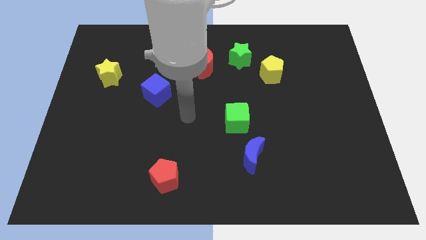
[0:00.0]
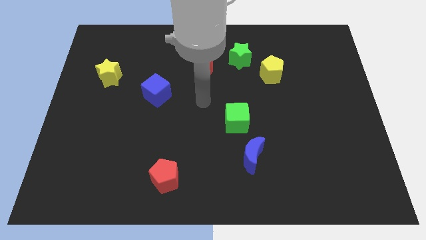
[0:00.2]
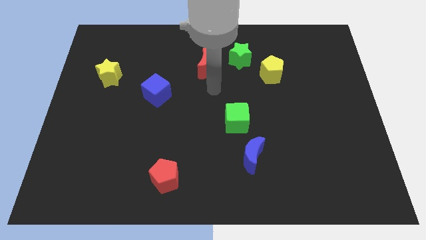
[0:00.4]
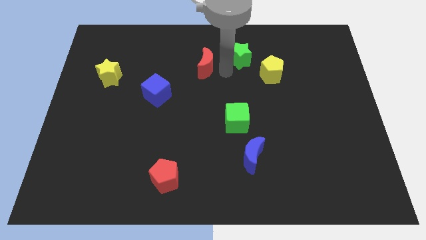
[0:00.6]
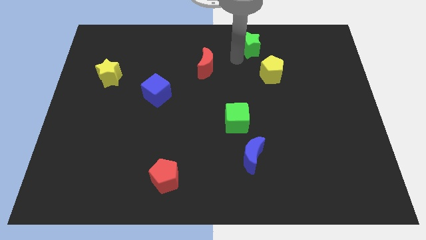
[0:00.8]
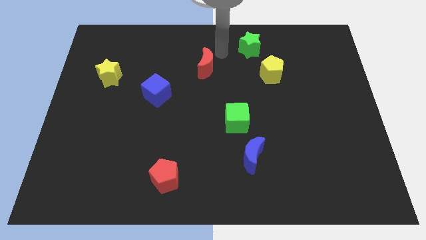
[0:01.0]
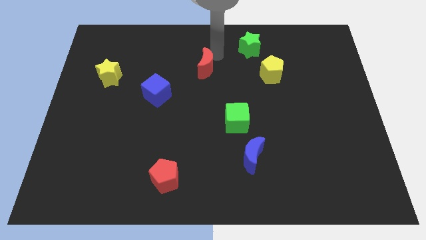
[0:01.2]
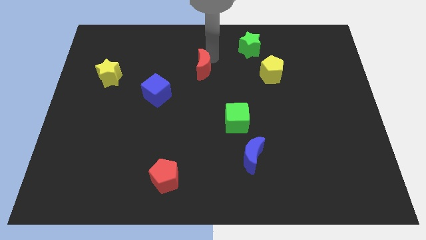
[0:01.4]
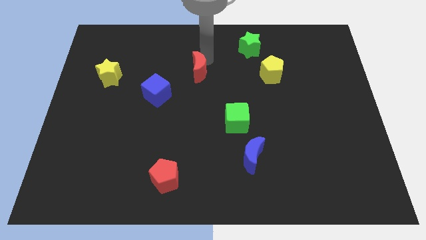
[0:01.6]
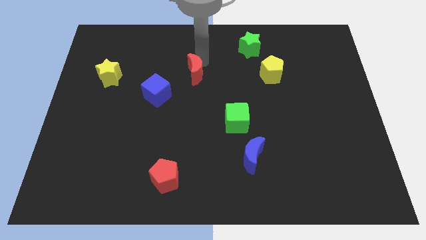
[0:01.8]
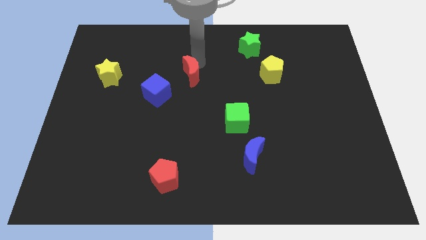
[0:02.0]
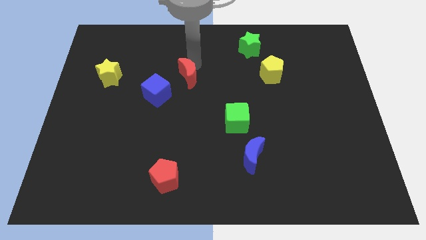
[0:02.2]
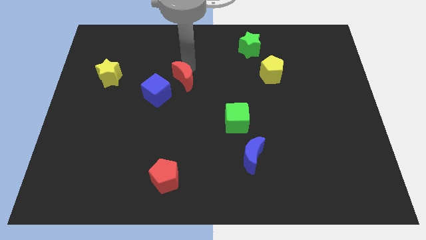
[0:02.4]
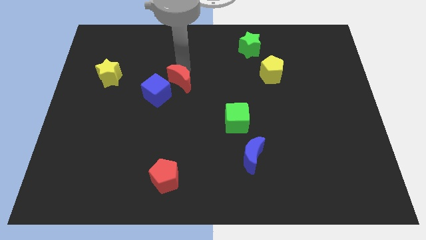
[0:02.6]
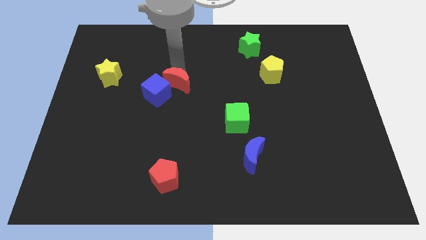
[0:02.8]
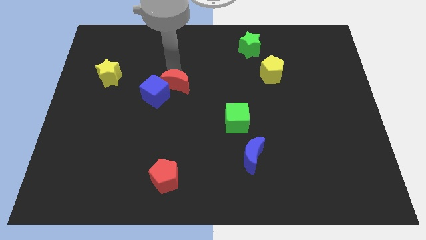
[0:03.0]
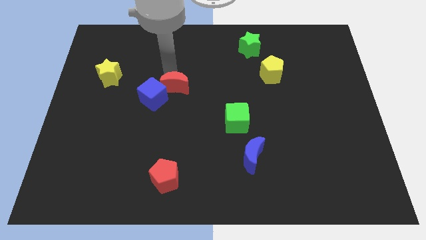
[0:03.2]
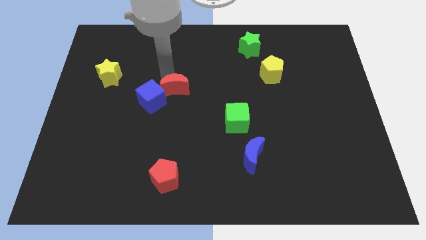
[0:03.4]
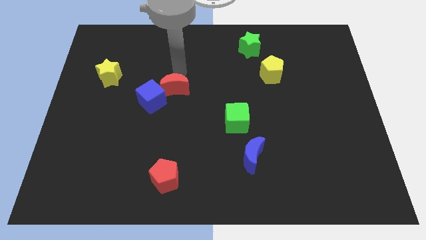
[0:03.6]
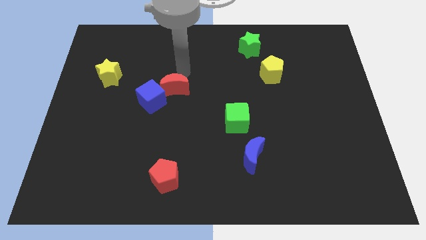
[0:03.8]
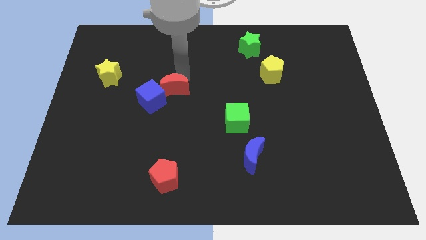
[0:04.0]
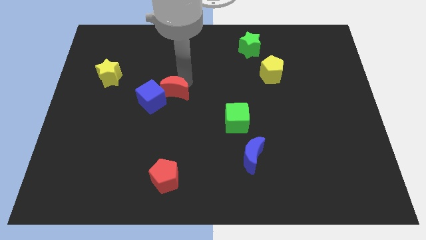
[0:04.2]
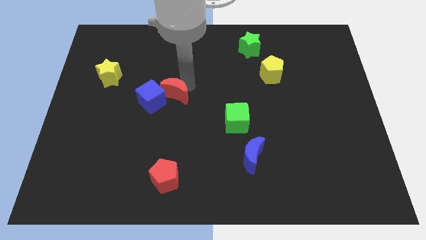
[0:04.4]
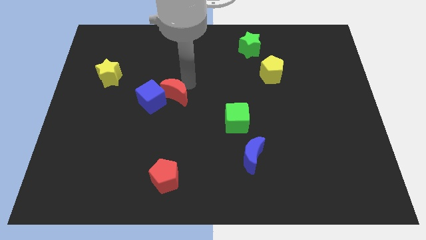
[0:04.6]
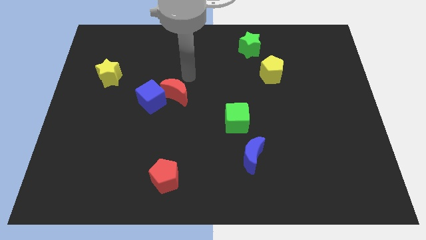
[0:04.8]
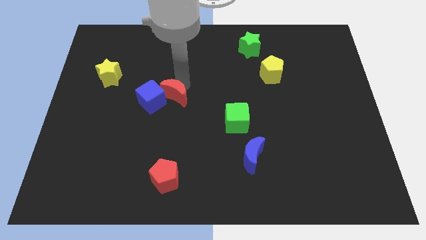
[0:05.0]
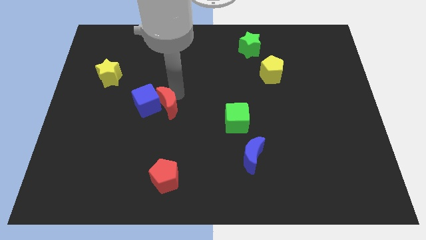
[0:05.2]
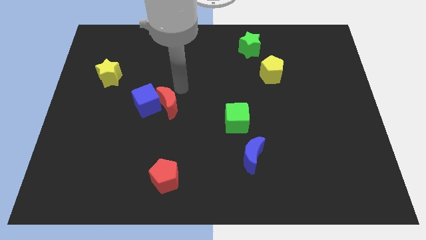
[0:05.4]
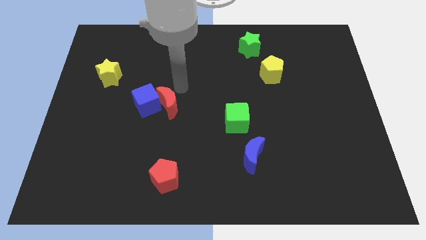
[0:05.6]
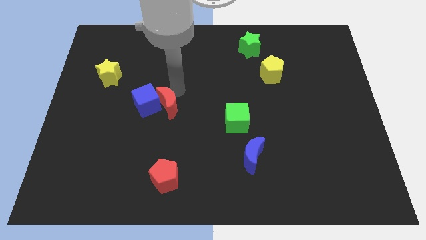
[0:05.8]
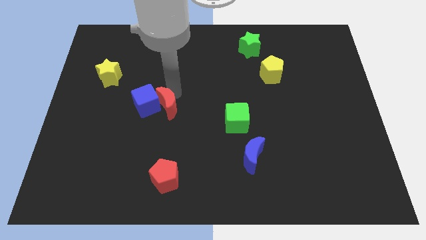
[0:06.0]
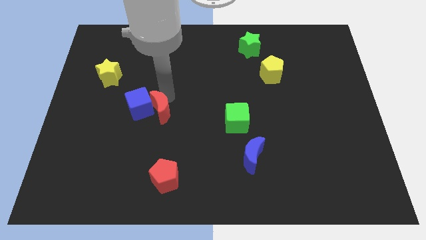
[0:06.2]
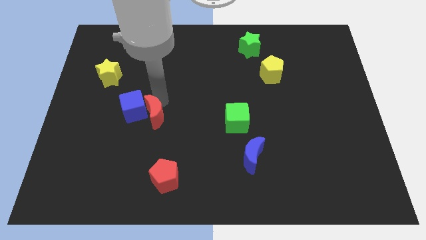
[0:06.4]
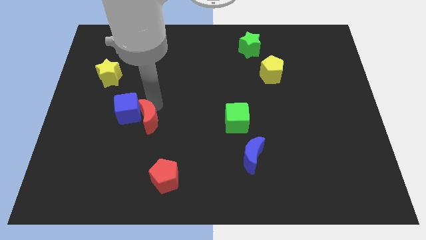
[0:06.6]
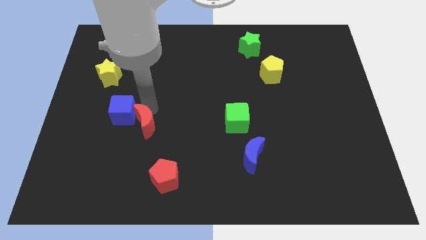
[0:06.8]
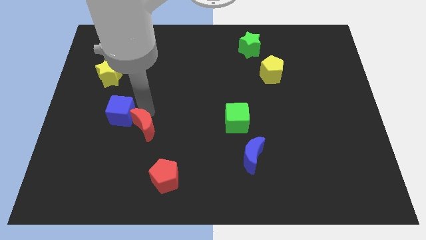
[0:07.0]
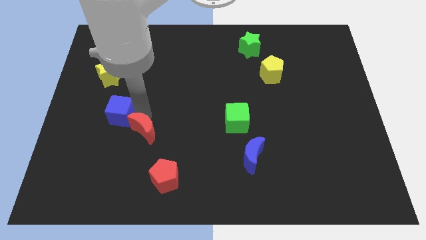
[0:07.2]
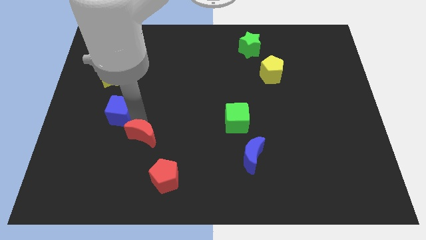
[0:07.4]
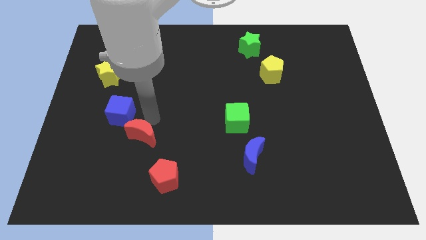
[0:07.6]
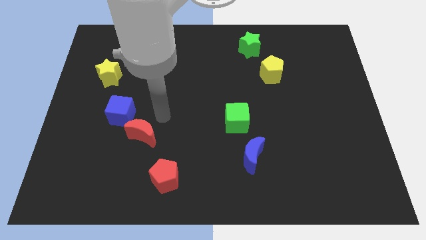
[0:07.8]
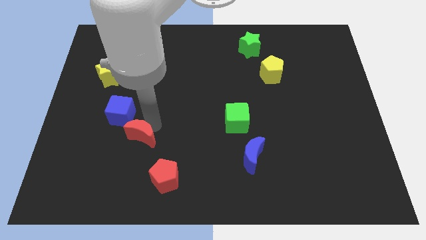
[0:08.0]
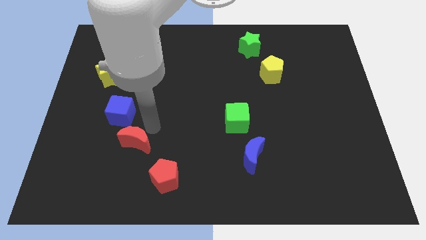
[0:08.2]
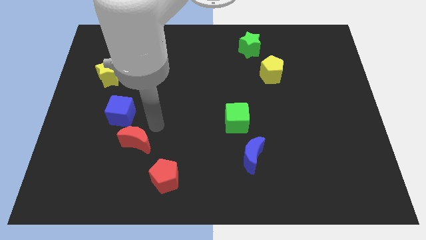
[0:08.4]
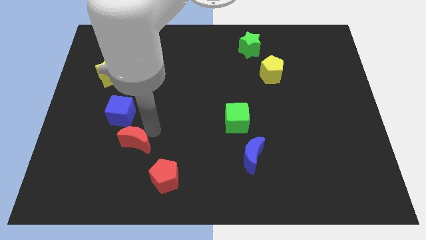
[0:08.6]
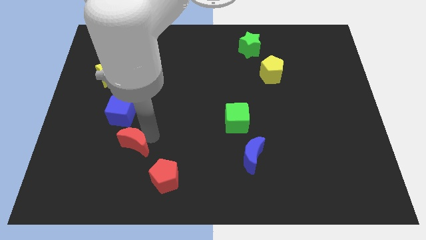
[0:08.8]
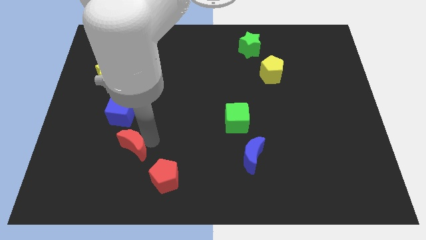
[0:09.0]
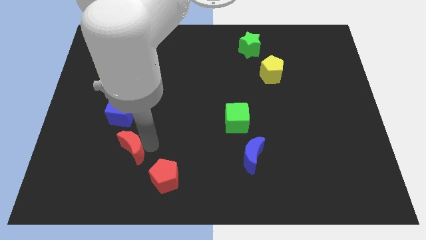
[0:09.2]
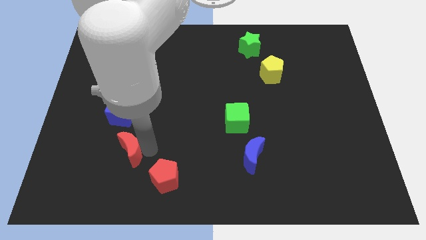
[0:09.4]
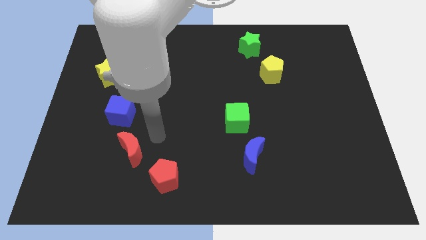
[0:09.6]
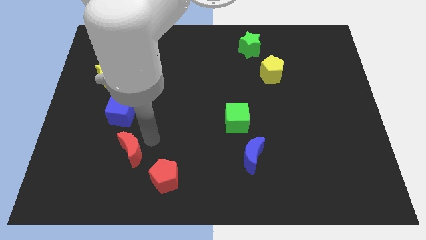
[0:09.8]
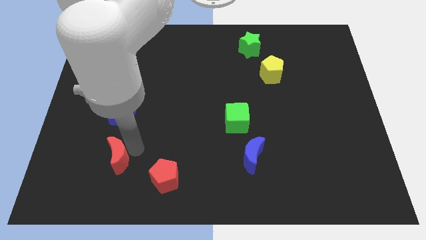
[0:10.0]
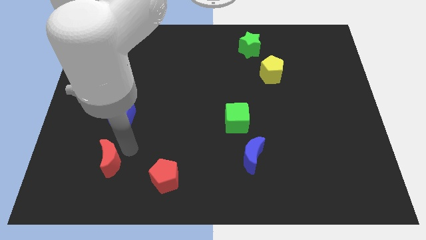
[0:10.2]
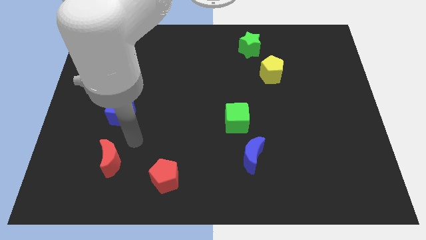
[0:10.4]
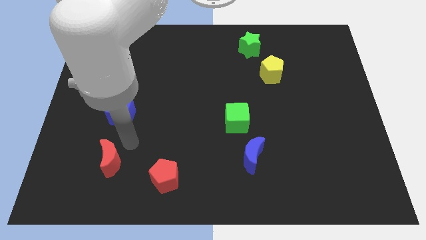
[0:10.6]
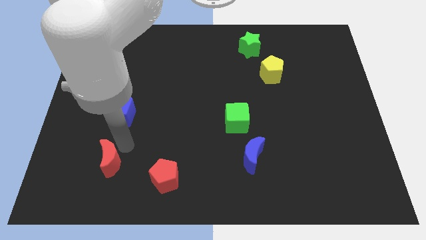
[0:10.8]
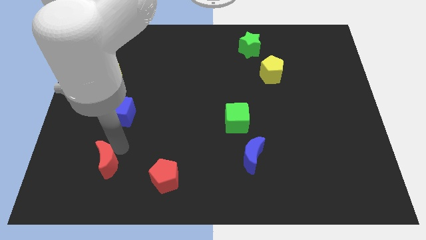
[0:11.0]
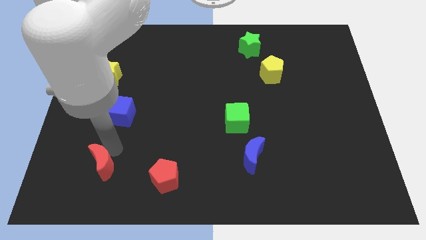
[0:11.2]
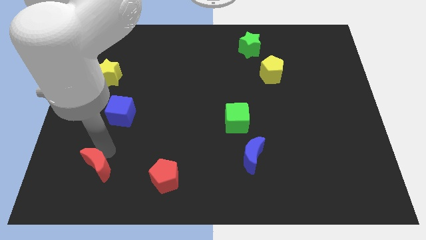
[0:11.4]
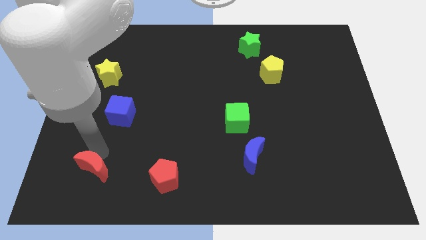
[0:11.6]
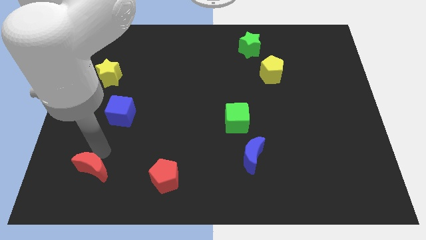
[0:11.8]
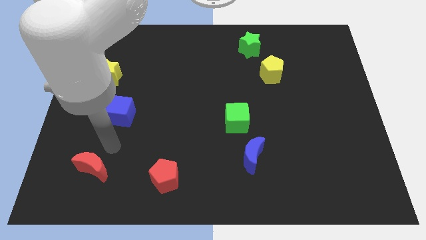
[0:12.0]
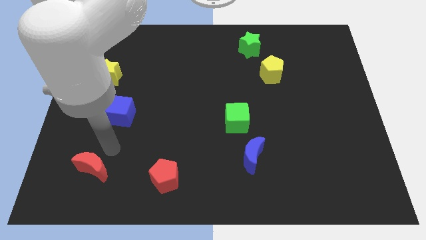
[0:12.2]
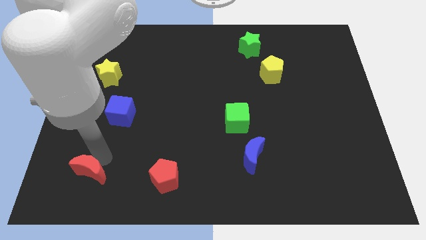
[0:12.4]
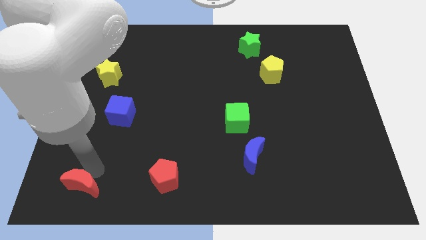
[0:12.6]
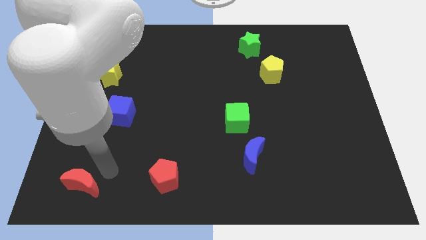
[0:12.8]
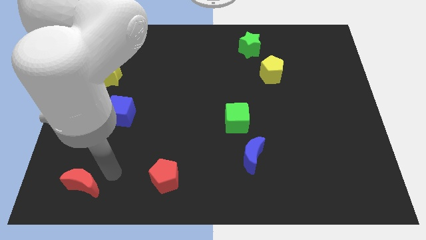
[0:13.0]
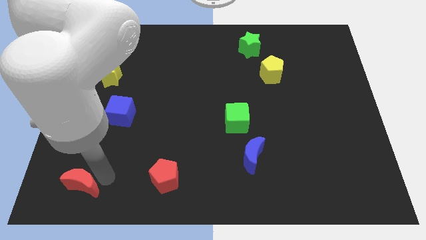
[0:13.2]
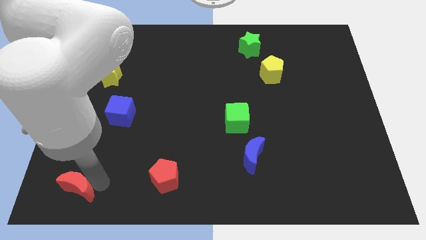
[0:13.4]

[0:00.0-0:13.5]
put the red moon to the bottom left corner
